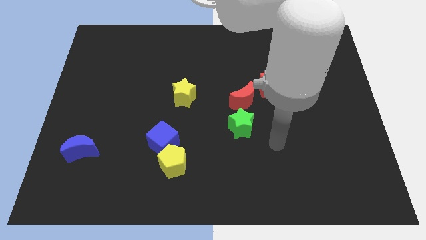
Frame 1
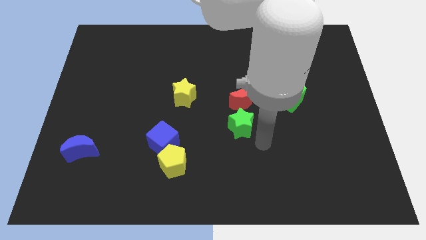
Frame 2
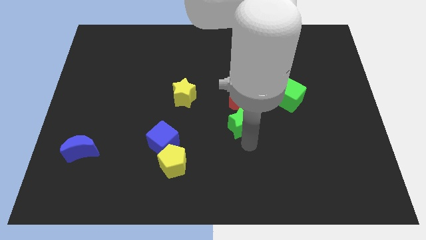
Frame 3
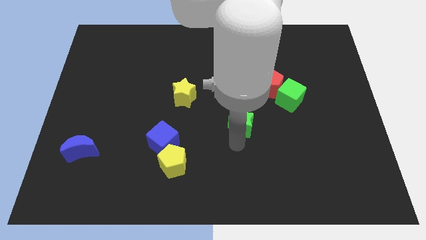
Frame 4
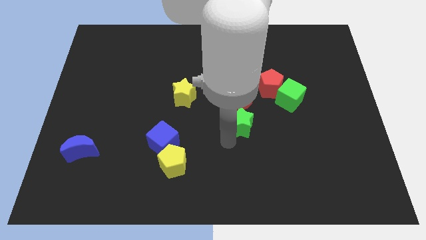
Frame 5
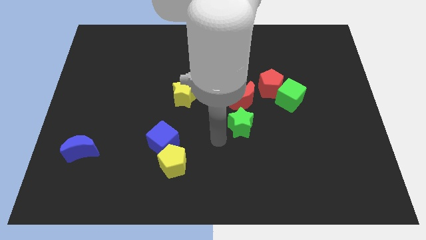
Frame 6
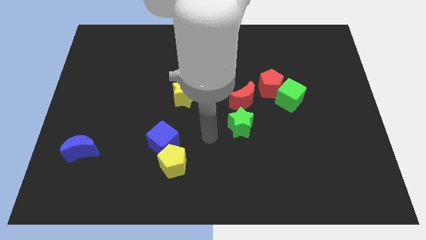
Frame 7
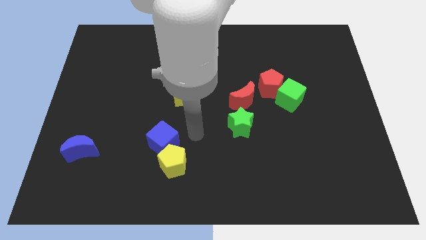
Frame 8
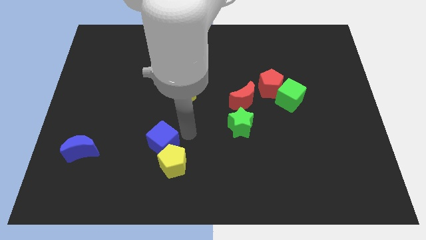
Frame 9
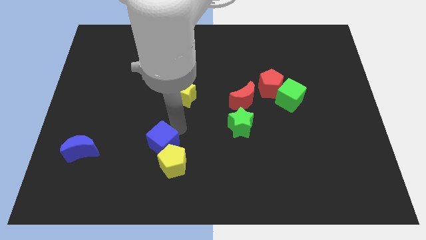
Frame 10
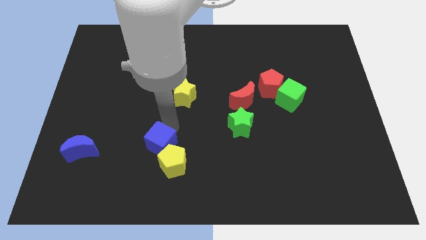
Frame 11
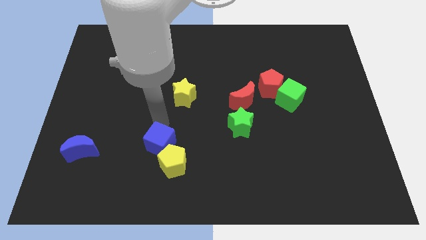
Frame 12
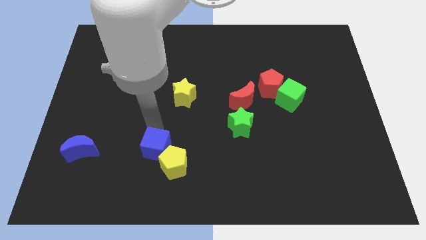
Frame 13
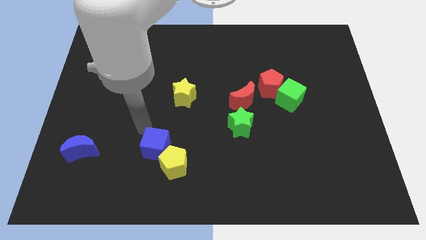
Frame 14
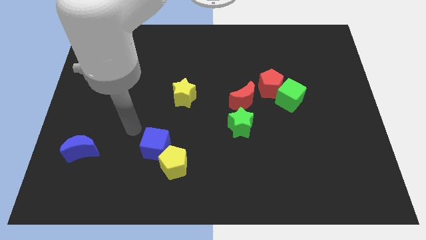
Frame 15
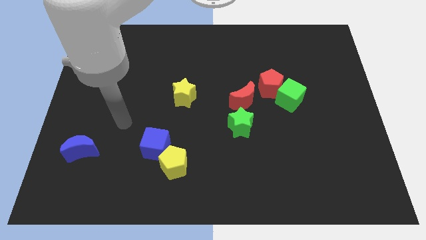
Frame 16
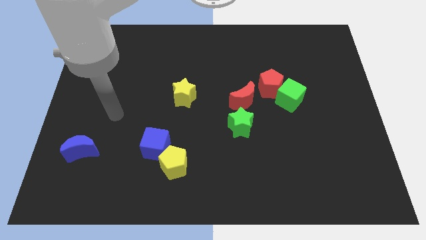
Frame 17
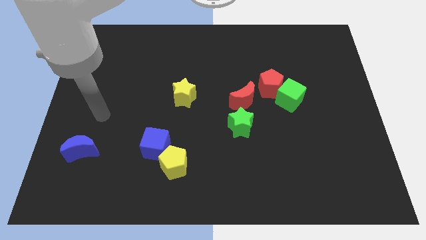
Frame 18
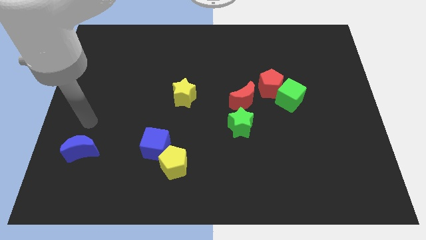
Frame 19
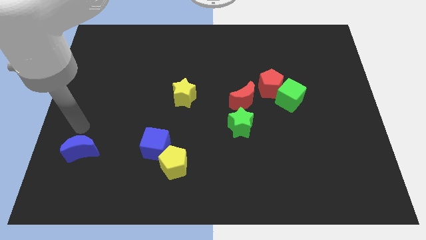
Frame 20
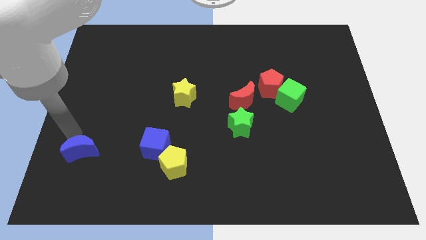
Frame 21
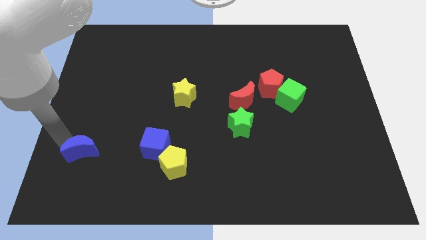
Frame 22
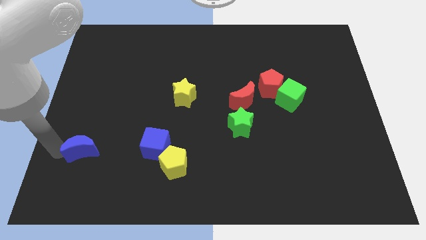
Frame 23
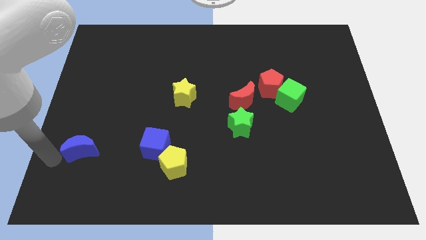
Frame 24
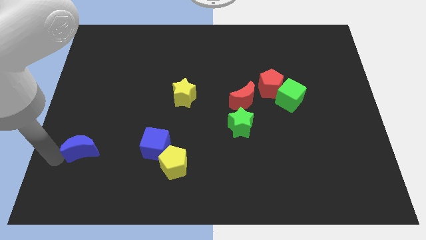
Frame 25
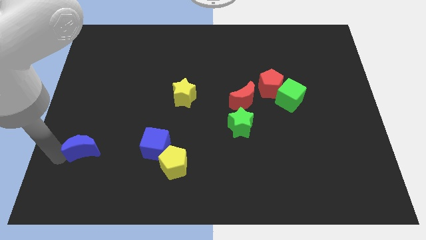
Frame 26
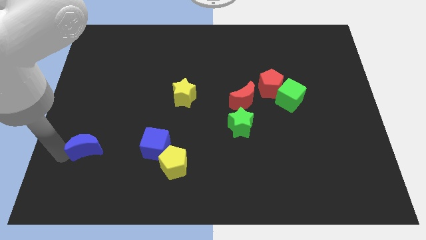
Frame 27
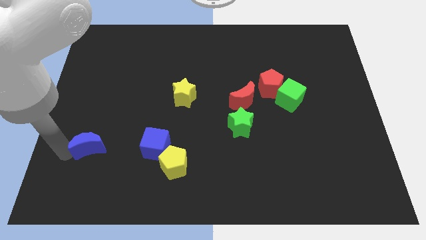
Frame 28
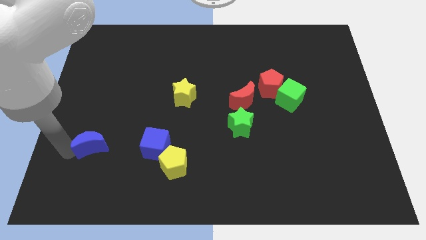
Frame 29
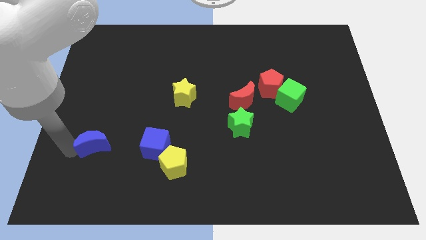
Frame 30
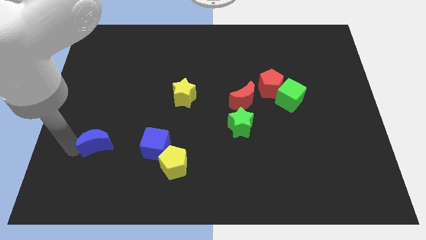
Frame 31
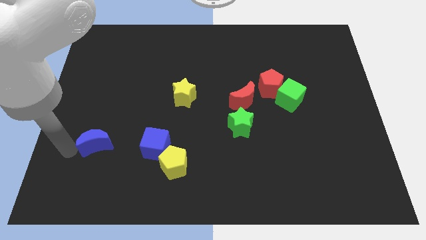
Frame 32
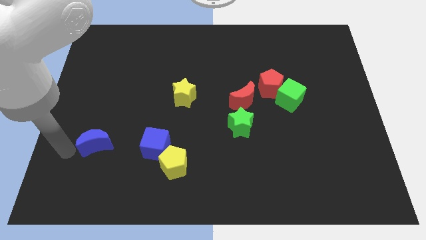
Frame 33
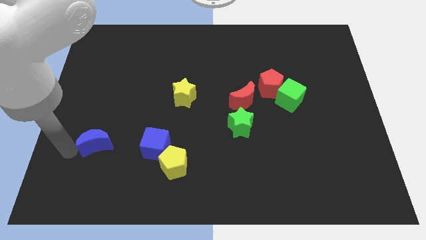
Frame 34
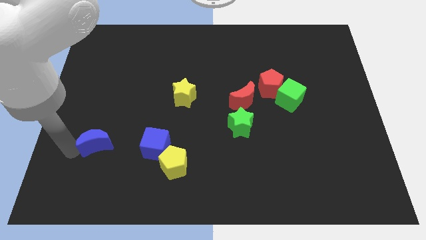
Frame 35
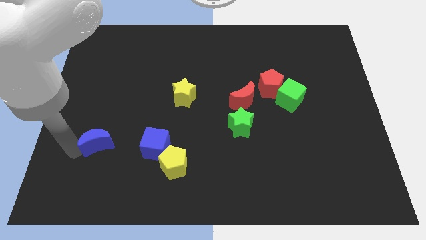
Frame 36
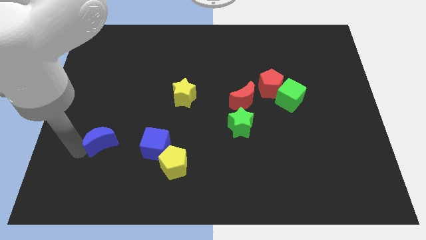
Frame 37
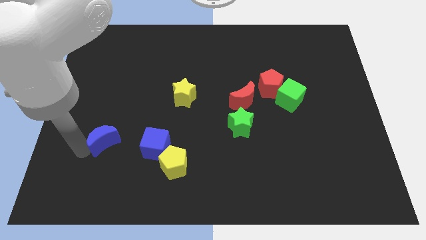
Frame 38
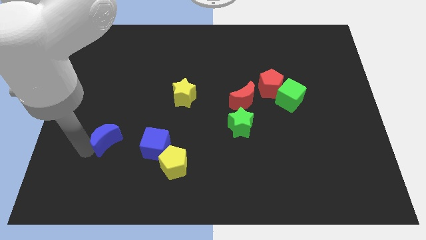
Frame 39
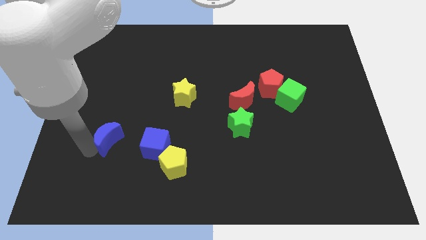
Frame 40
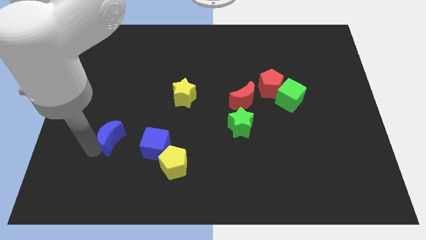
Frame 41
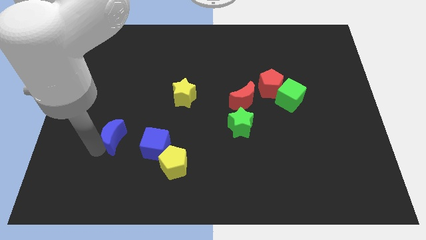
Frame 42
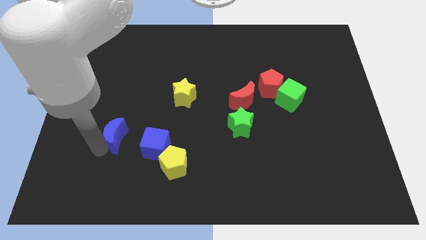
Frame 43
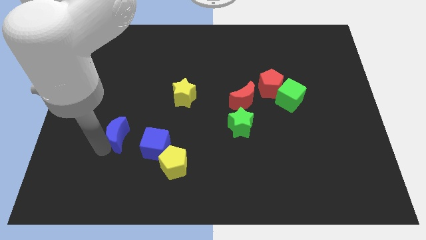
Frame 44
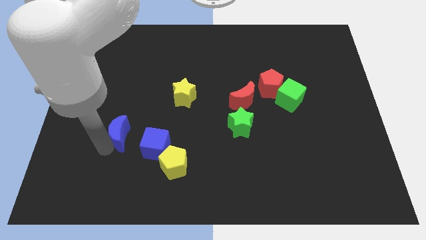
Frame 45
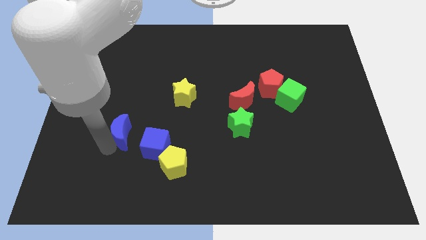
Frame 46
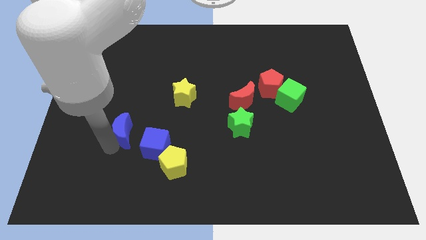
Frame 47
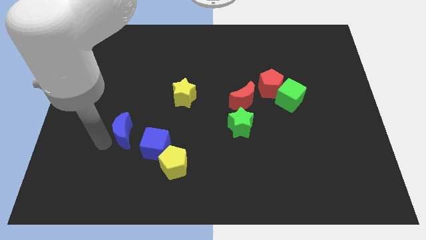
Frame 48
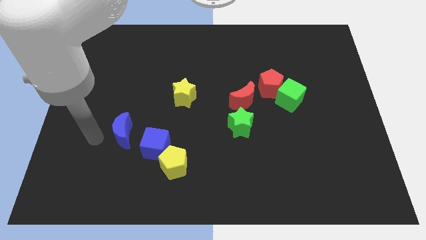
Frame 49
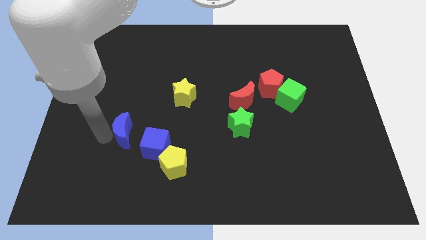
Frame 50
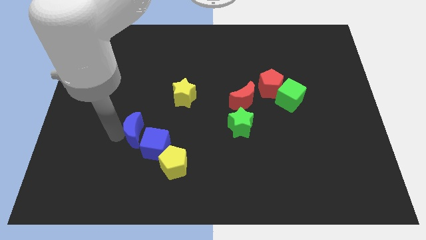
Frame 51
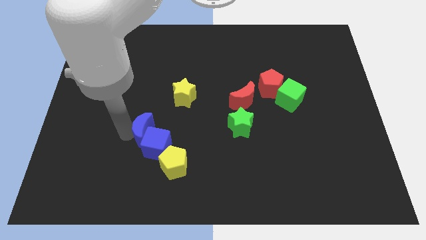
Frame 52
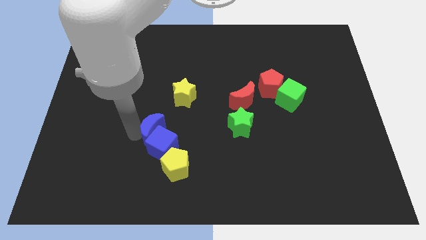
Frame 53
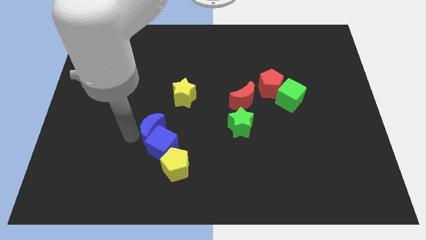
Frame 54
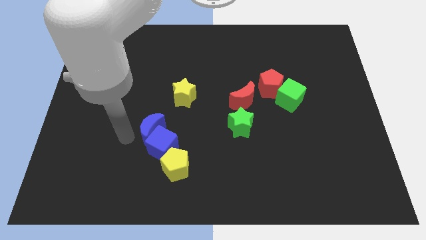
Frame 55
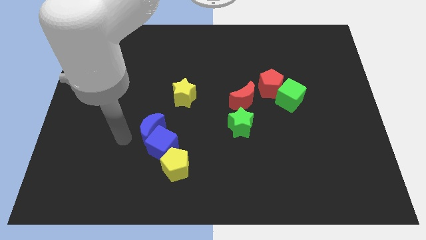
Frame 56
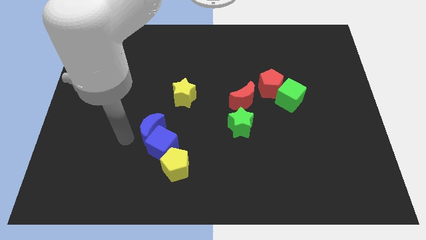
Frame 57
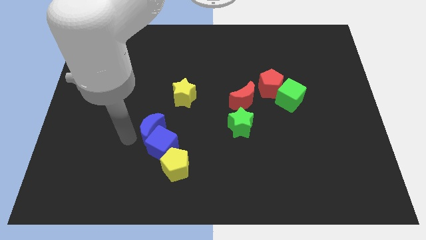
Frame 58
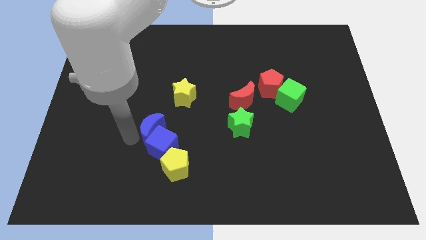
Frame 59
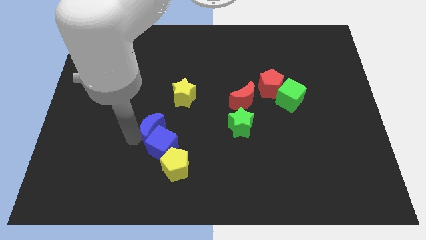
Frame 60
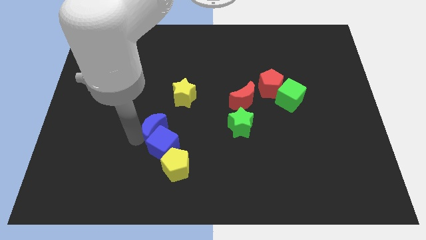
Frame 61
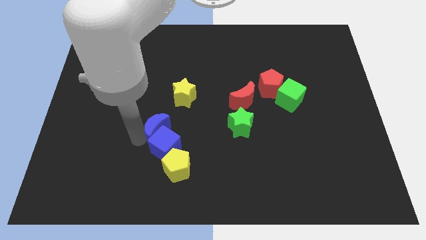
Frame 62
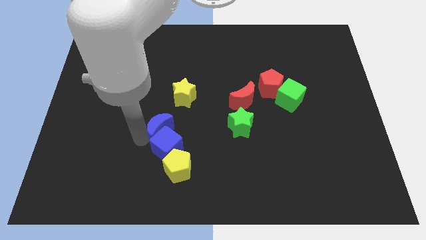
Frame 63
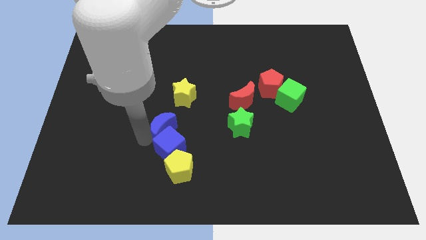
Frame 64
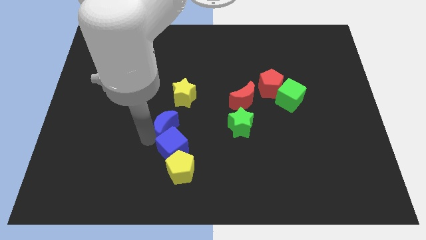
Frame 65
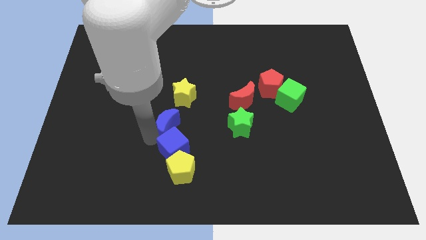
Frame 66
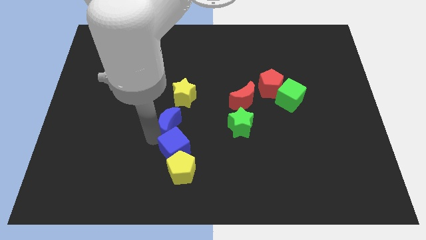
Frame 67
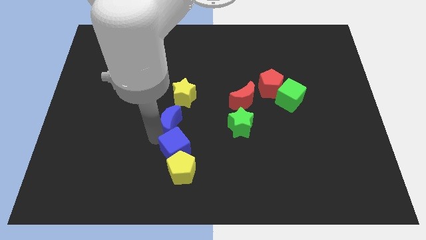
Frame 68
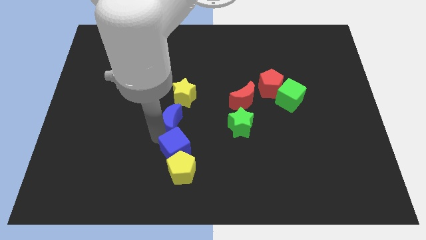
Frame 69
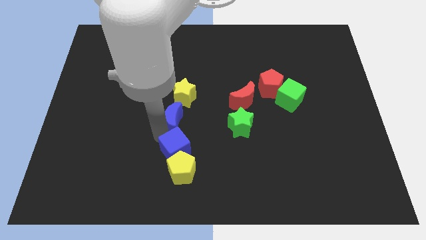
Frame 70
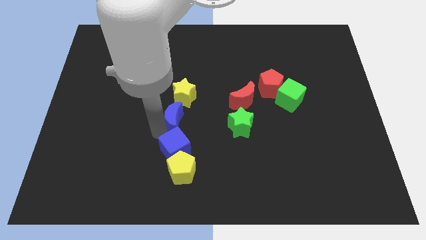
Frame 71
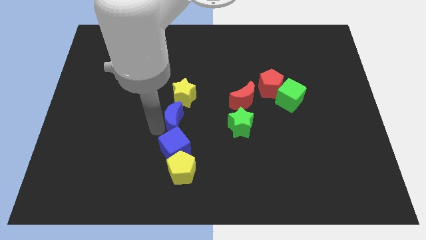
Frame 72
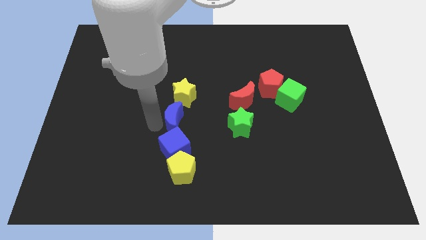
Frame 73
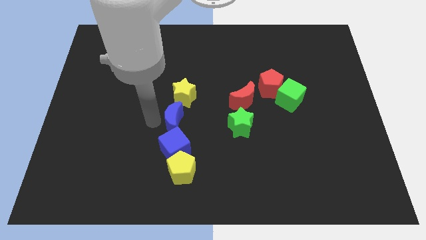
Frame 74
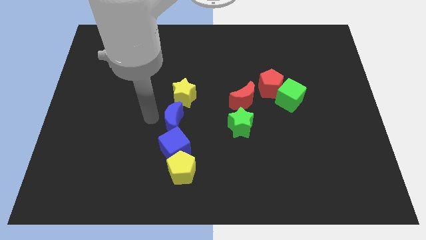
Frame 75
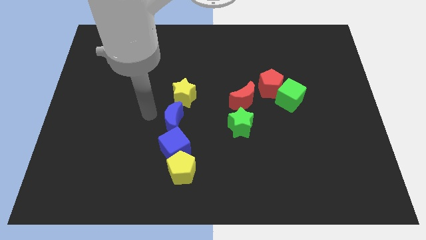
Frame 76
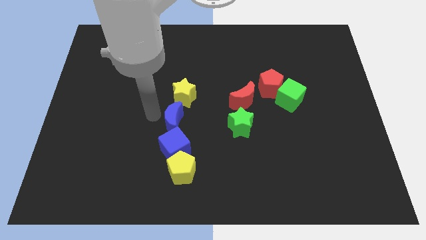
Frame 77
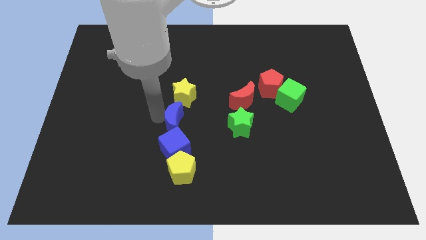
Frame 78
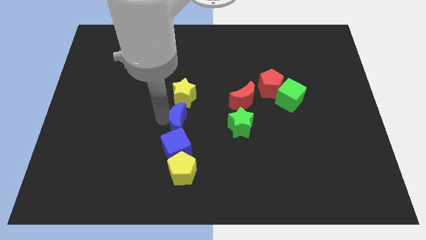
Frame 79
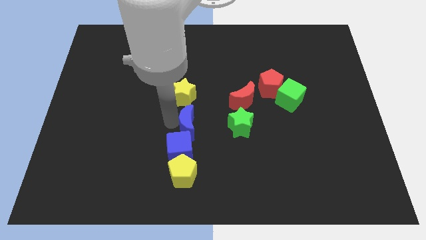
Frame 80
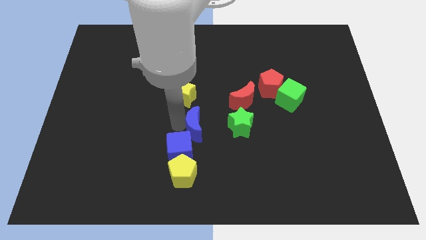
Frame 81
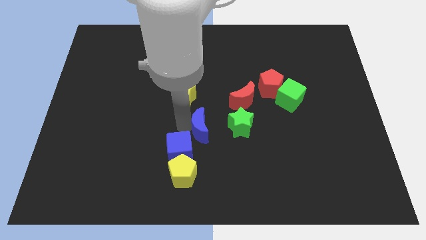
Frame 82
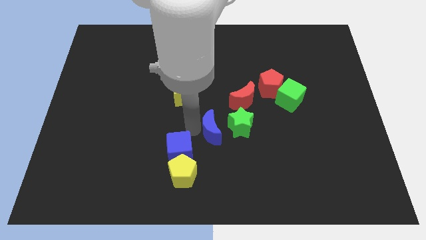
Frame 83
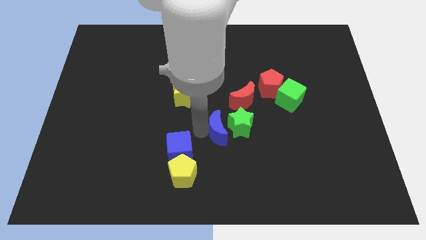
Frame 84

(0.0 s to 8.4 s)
move the blue moon towards the green star
